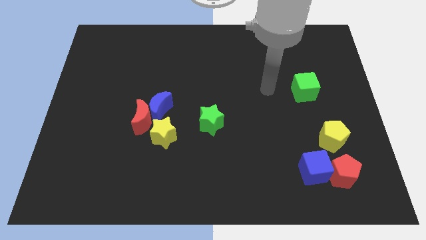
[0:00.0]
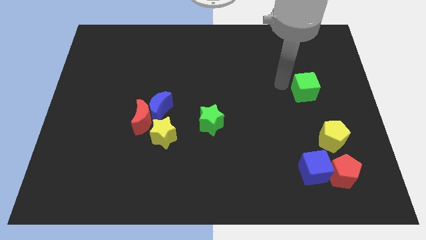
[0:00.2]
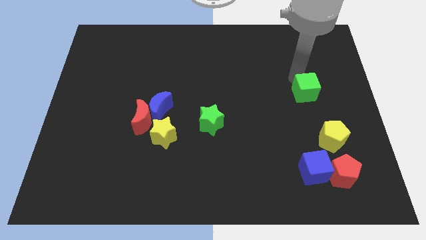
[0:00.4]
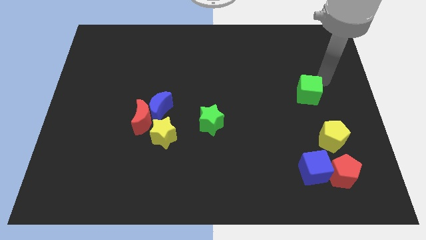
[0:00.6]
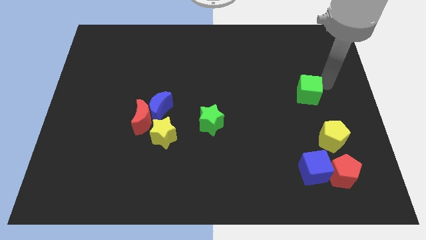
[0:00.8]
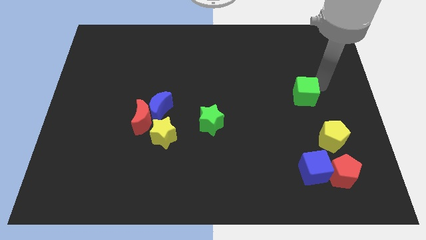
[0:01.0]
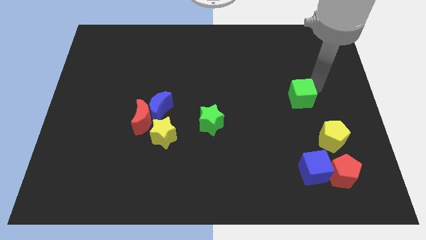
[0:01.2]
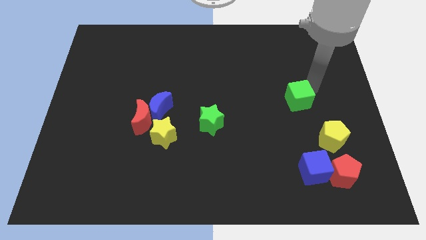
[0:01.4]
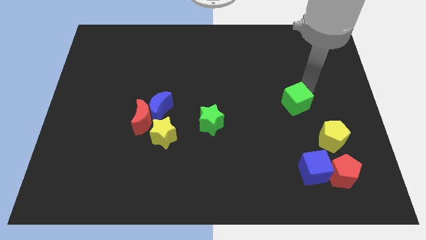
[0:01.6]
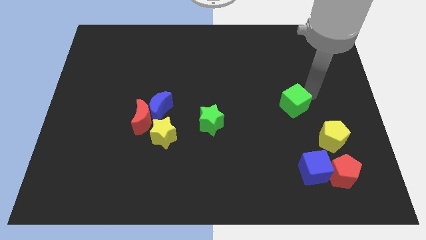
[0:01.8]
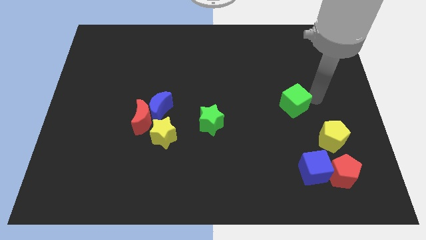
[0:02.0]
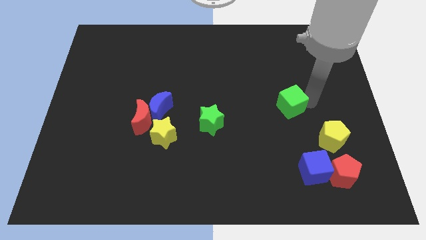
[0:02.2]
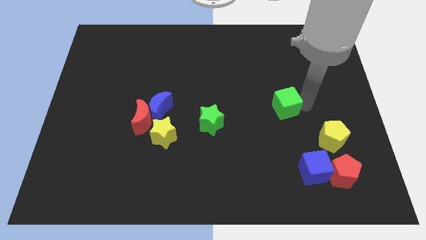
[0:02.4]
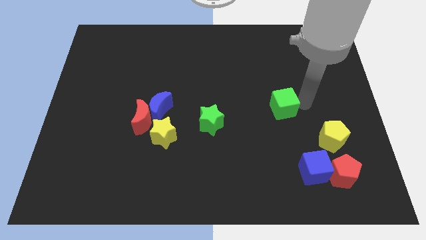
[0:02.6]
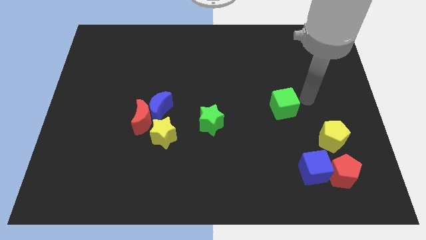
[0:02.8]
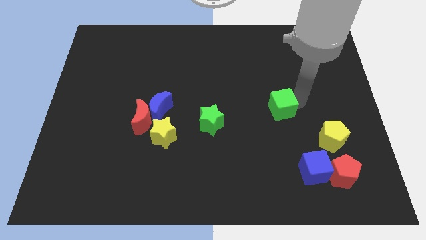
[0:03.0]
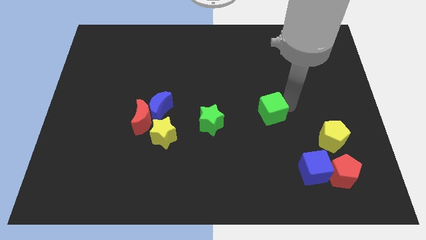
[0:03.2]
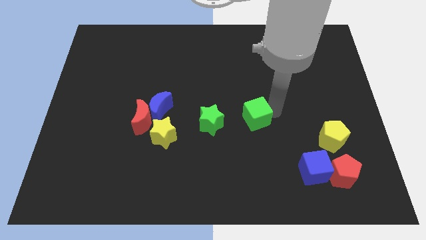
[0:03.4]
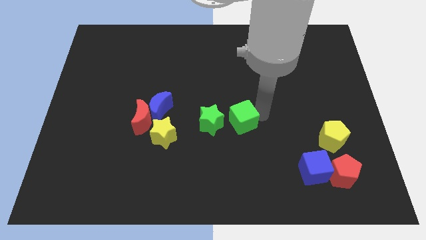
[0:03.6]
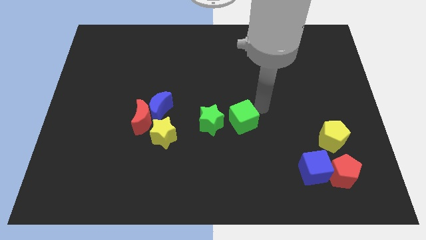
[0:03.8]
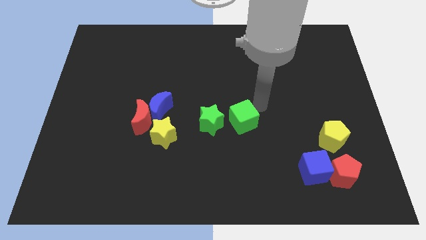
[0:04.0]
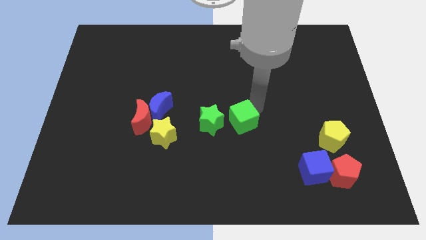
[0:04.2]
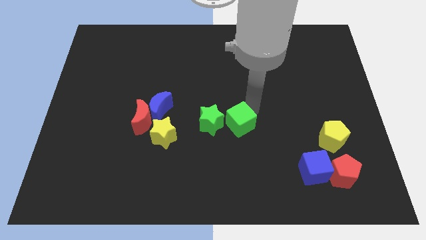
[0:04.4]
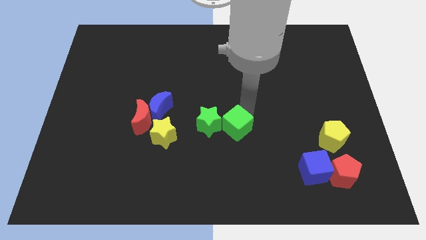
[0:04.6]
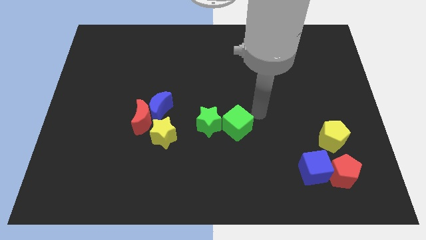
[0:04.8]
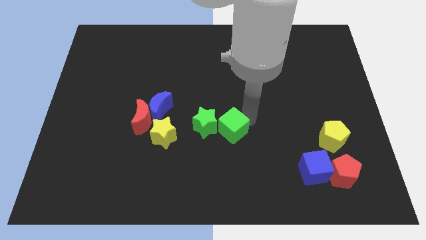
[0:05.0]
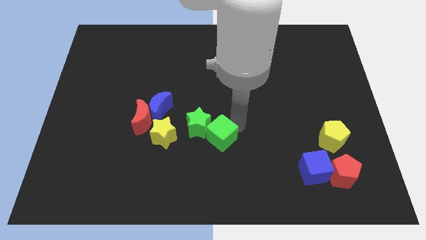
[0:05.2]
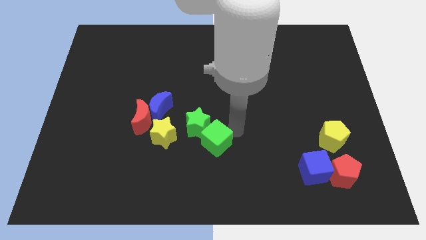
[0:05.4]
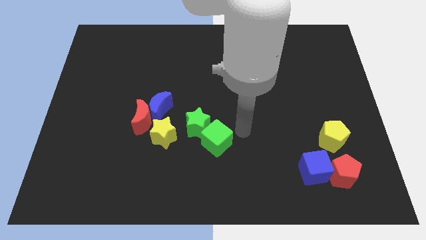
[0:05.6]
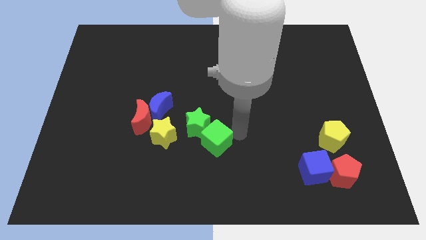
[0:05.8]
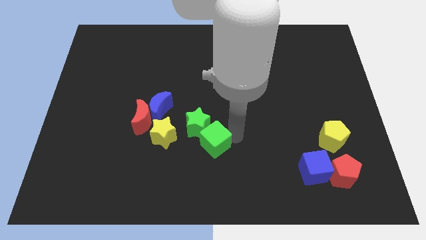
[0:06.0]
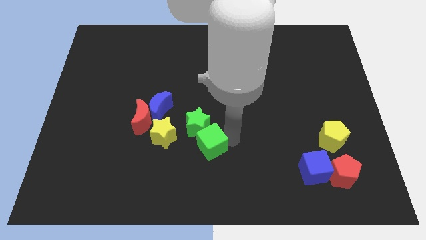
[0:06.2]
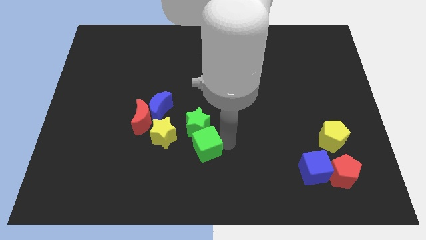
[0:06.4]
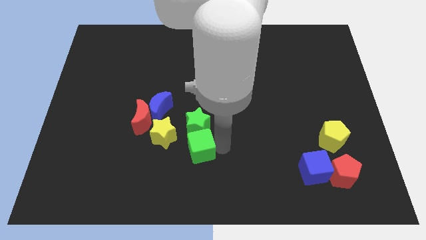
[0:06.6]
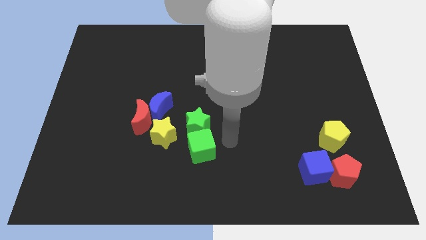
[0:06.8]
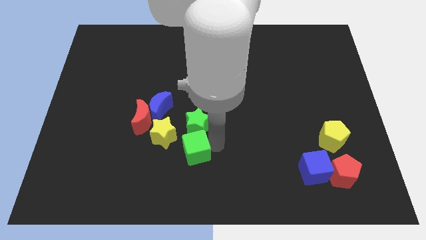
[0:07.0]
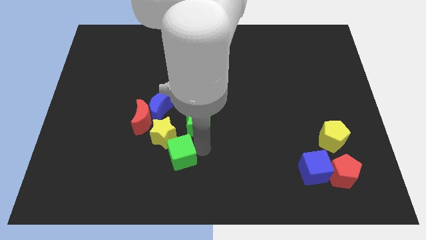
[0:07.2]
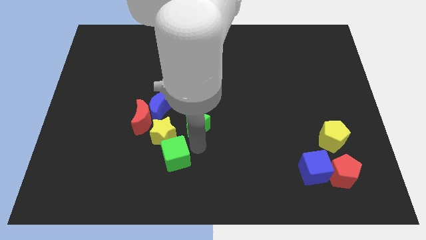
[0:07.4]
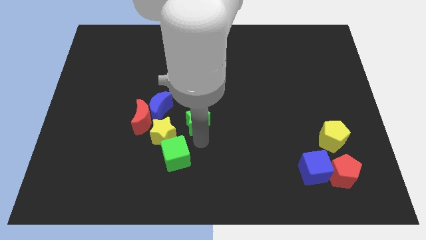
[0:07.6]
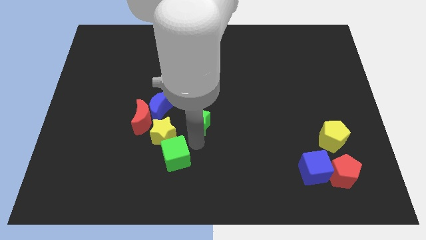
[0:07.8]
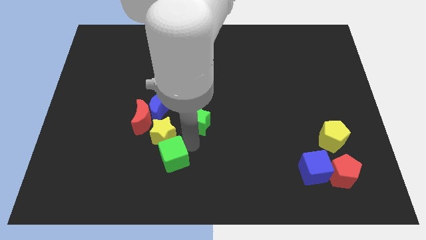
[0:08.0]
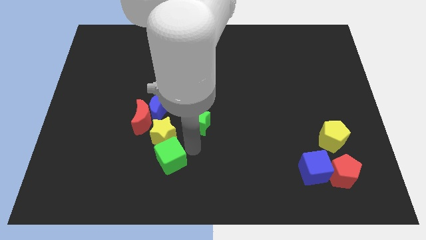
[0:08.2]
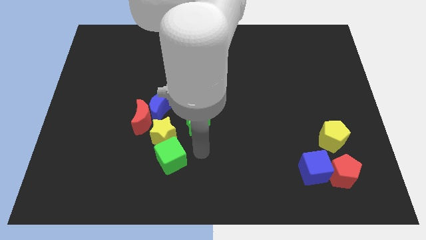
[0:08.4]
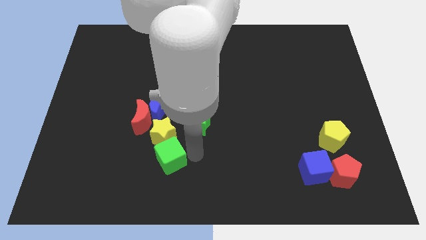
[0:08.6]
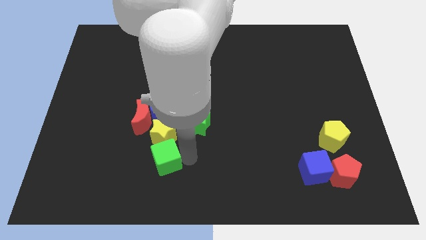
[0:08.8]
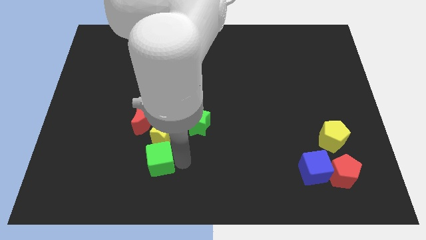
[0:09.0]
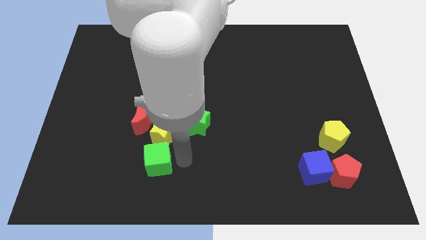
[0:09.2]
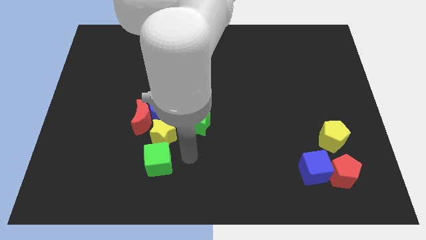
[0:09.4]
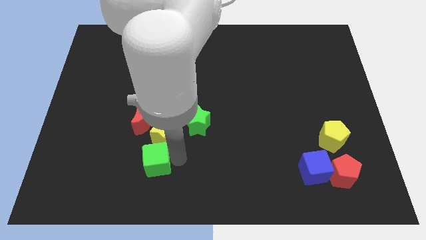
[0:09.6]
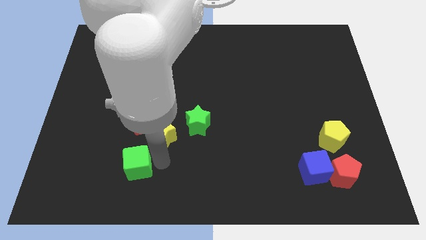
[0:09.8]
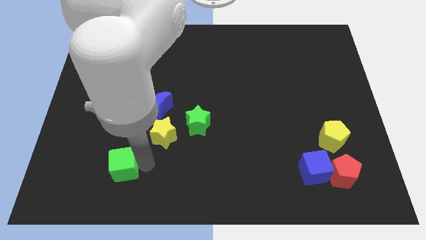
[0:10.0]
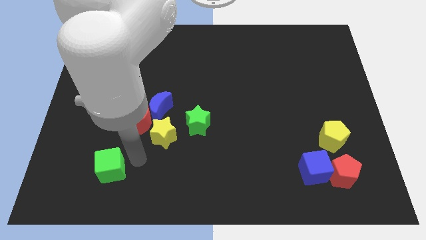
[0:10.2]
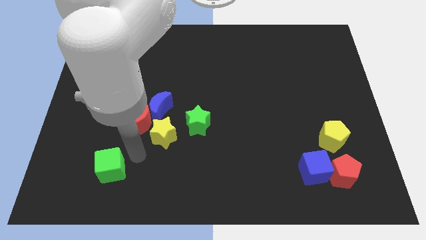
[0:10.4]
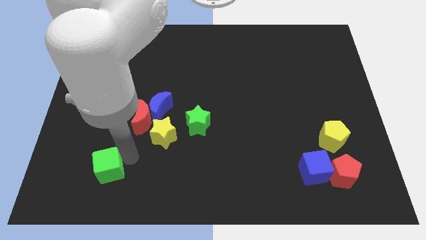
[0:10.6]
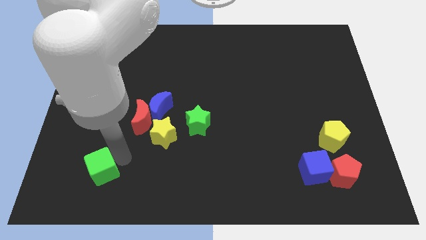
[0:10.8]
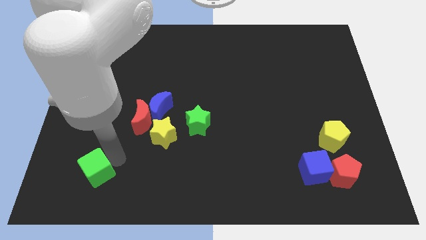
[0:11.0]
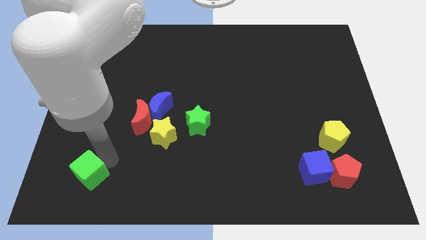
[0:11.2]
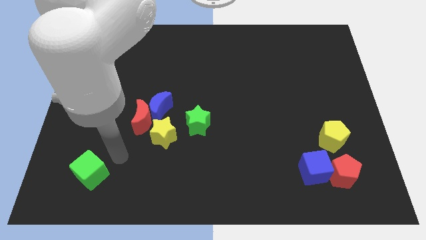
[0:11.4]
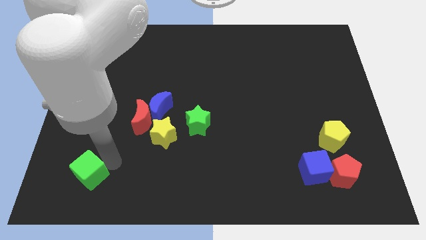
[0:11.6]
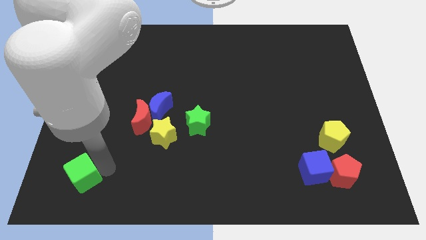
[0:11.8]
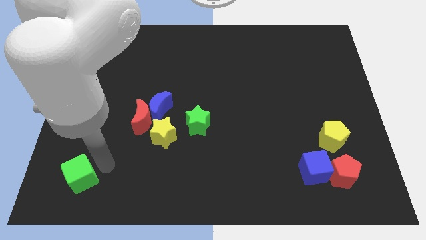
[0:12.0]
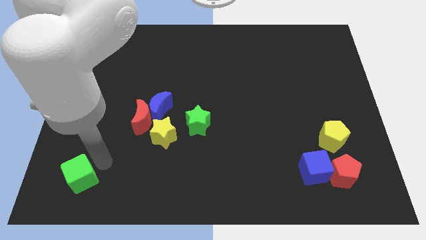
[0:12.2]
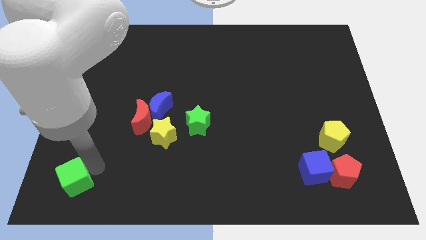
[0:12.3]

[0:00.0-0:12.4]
slide the green cube to the bottom left of the board

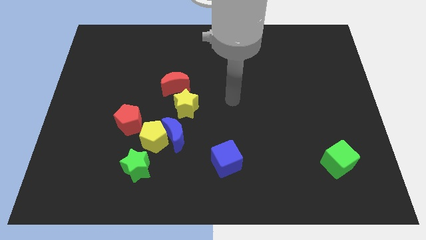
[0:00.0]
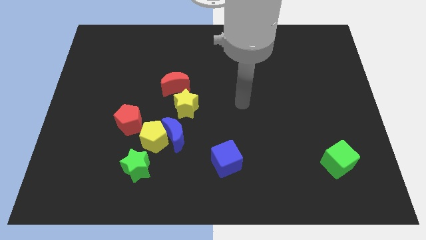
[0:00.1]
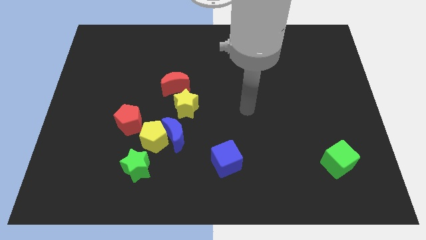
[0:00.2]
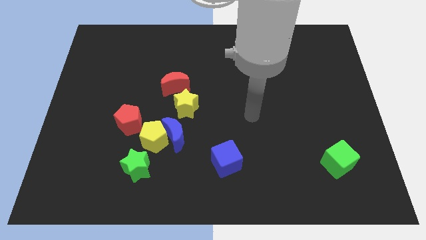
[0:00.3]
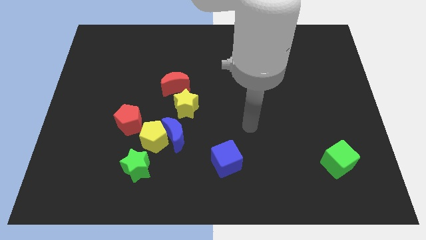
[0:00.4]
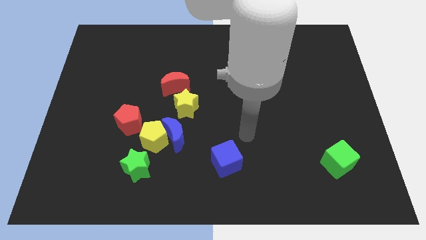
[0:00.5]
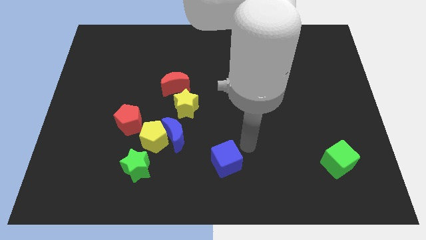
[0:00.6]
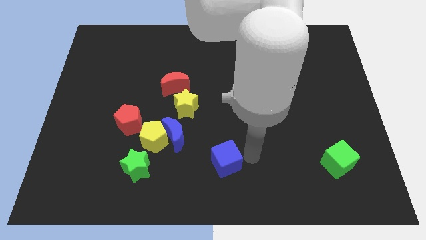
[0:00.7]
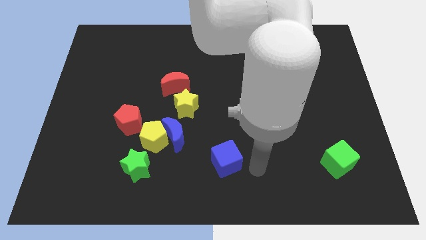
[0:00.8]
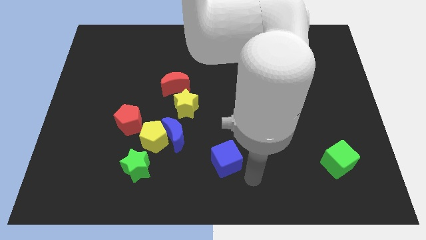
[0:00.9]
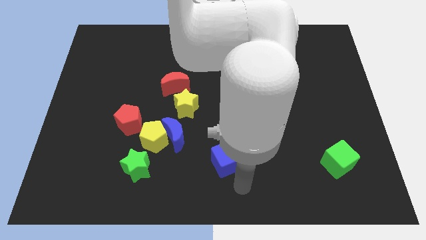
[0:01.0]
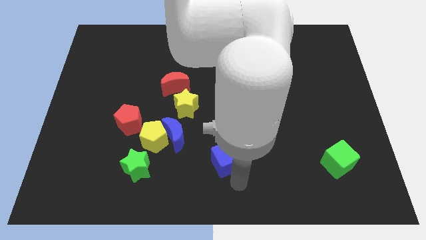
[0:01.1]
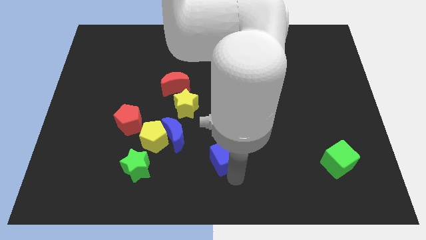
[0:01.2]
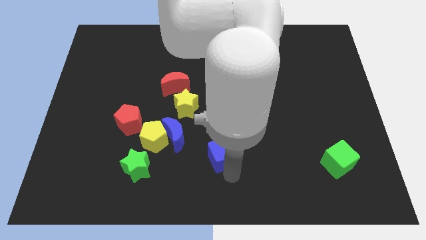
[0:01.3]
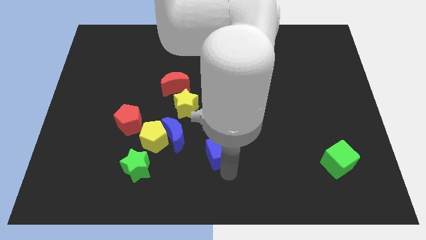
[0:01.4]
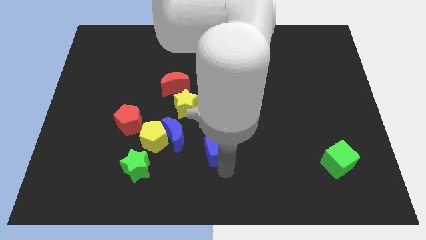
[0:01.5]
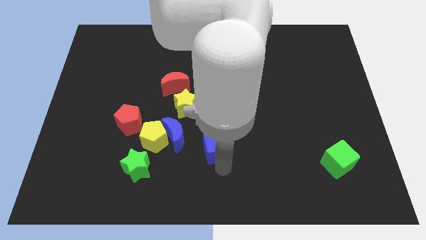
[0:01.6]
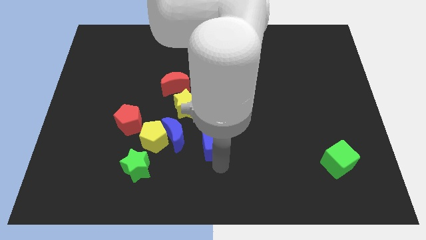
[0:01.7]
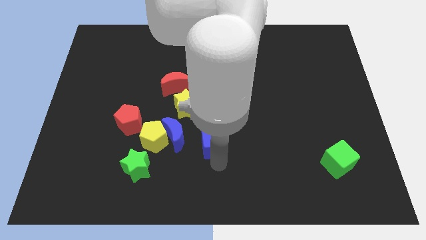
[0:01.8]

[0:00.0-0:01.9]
put the blue cube to the center of the board
